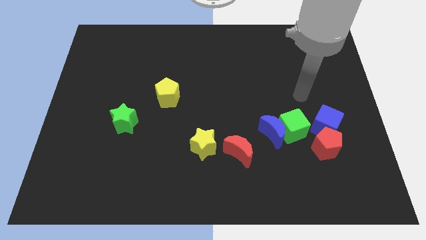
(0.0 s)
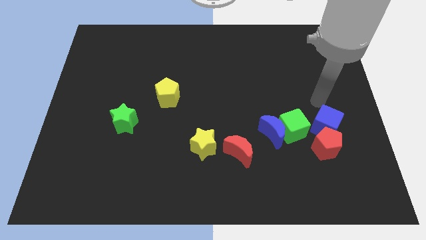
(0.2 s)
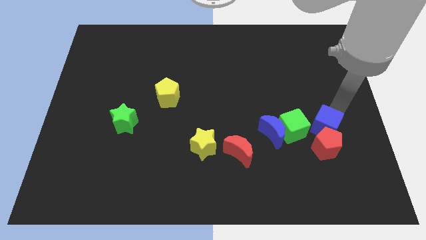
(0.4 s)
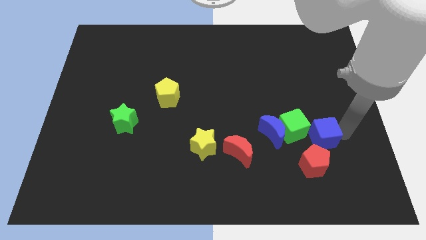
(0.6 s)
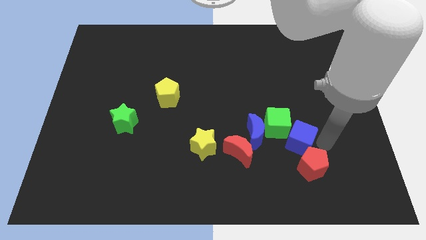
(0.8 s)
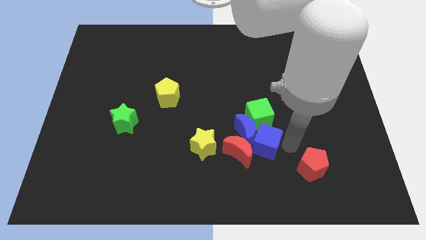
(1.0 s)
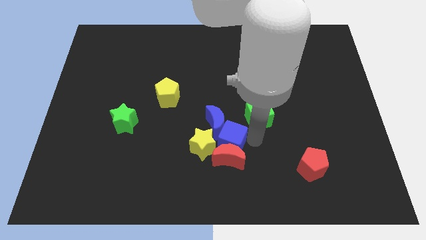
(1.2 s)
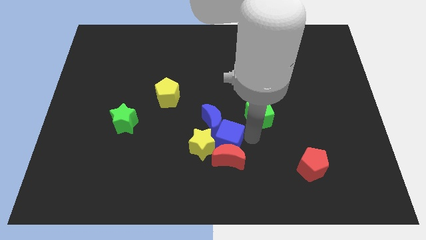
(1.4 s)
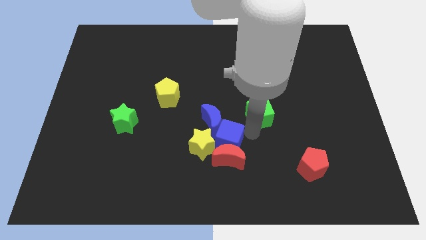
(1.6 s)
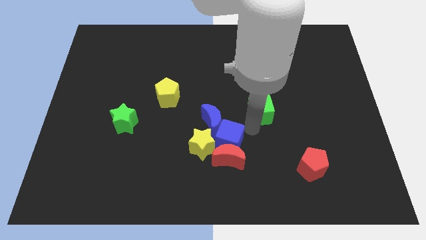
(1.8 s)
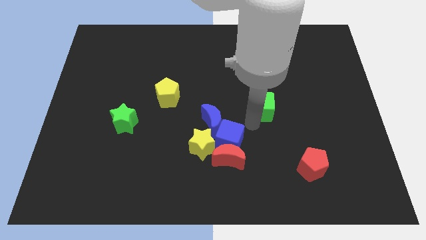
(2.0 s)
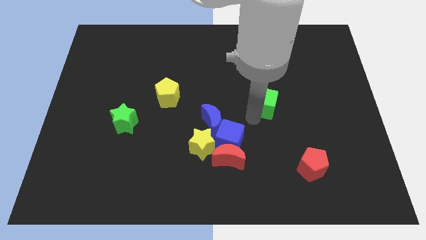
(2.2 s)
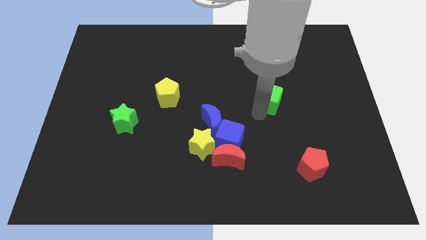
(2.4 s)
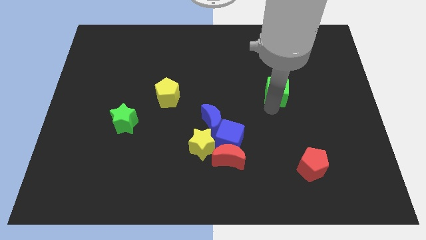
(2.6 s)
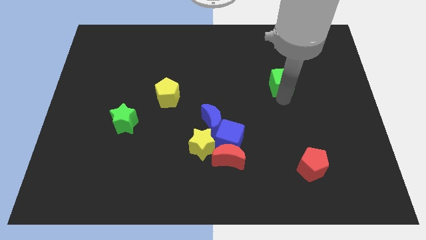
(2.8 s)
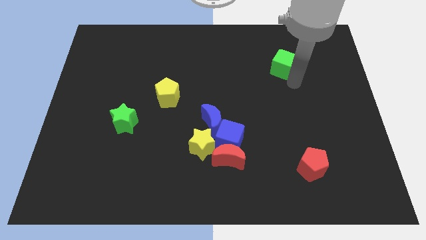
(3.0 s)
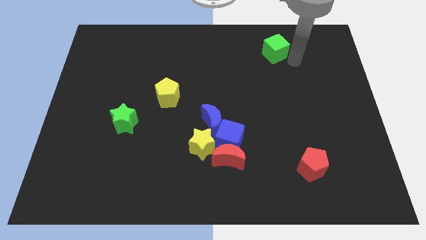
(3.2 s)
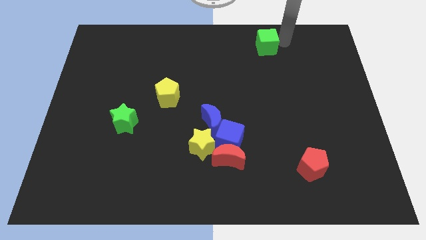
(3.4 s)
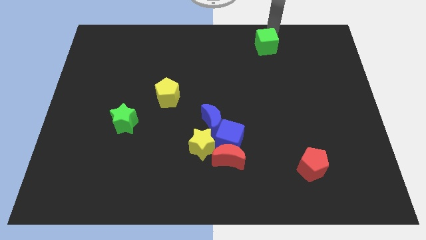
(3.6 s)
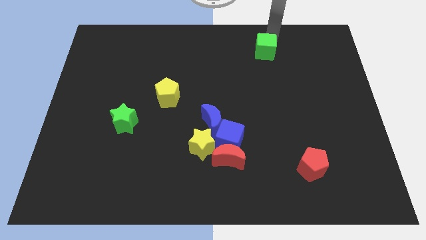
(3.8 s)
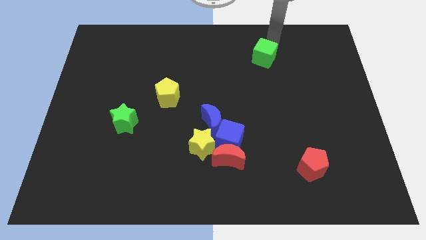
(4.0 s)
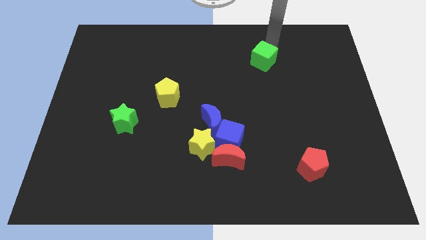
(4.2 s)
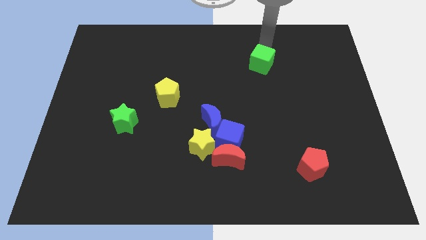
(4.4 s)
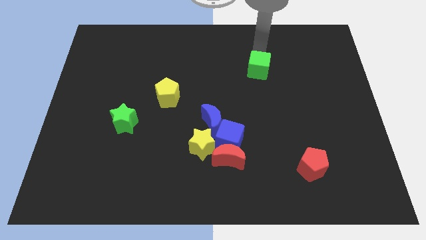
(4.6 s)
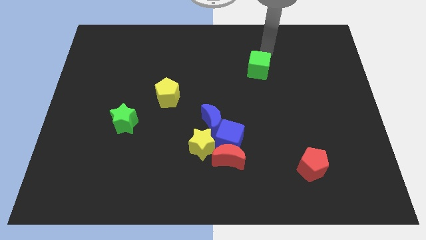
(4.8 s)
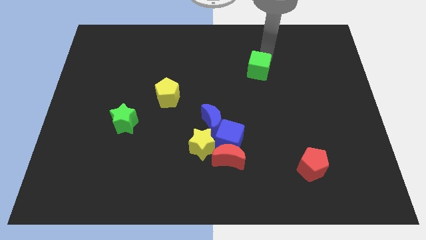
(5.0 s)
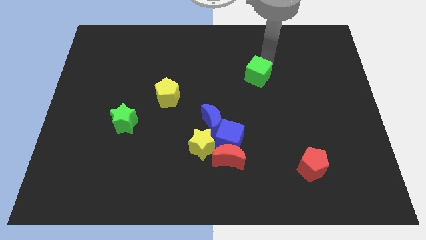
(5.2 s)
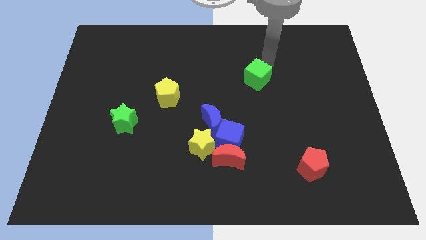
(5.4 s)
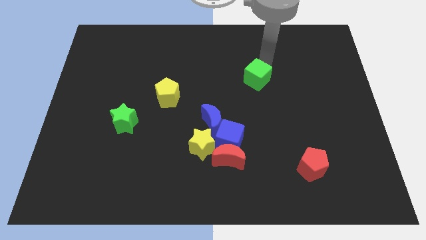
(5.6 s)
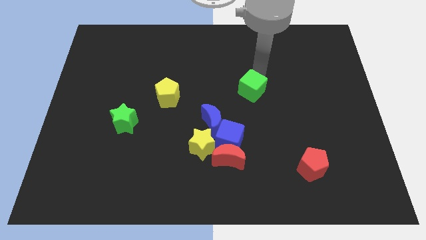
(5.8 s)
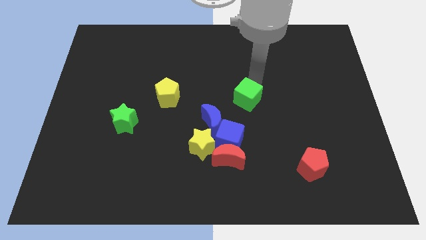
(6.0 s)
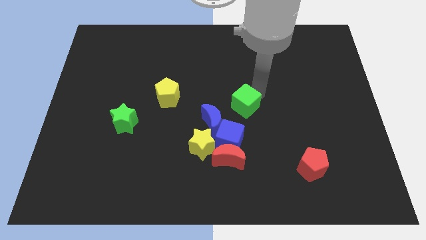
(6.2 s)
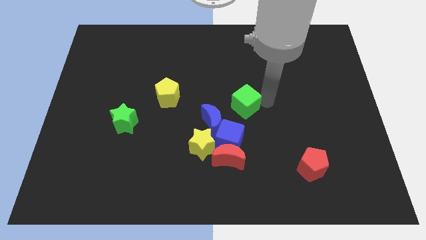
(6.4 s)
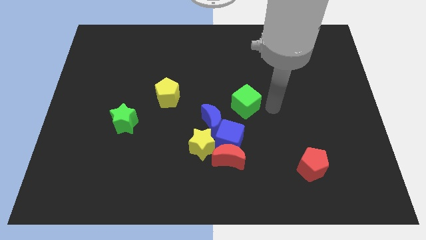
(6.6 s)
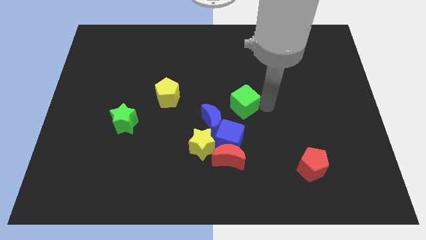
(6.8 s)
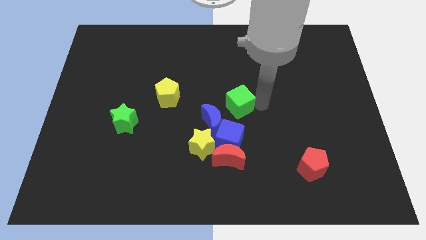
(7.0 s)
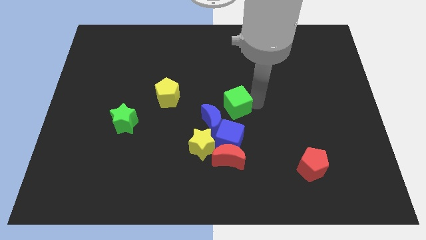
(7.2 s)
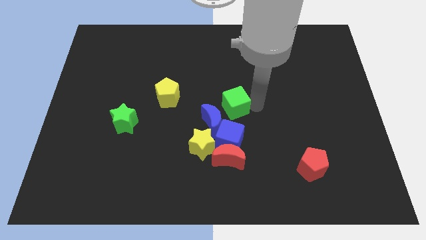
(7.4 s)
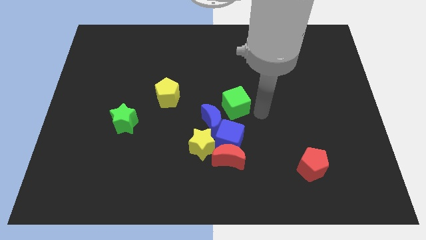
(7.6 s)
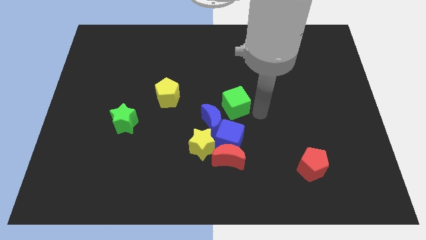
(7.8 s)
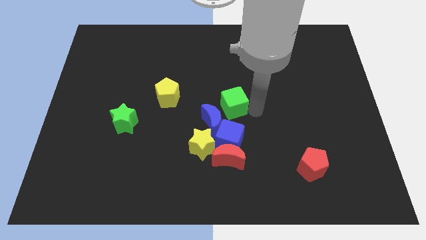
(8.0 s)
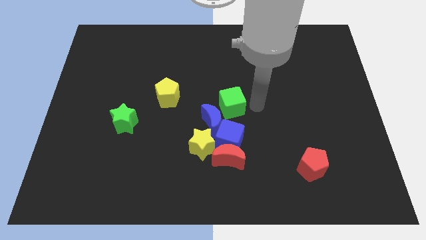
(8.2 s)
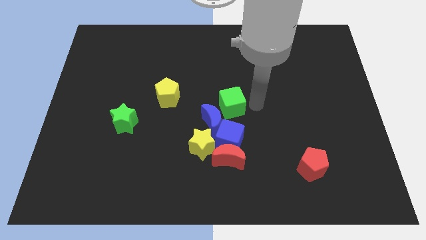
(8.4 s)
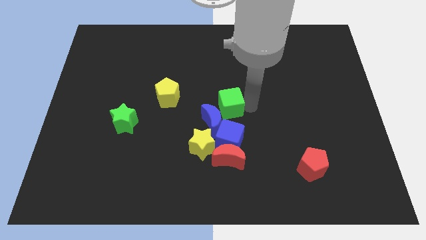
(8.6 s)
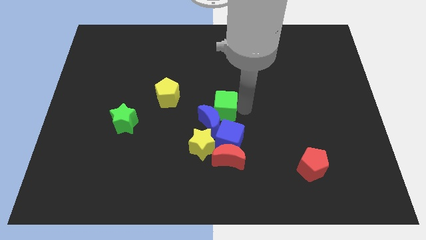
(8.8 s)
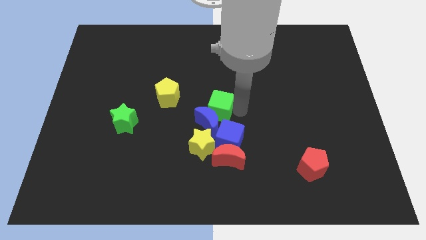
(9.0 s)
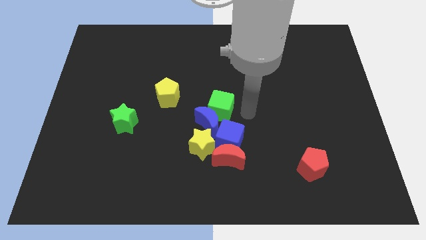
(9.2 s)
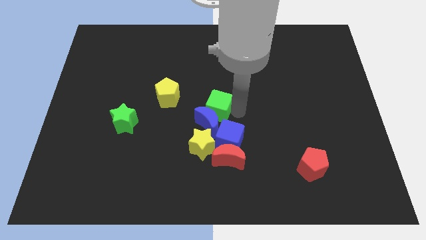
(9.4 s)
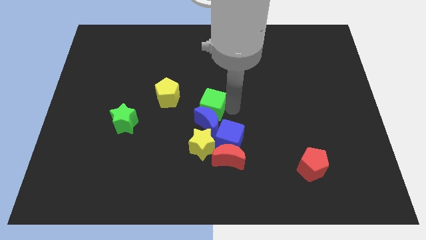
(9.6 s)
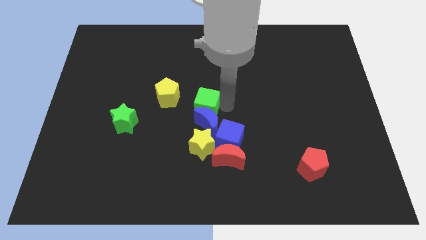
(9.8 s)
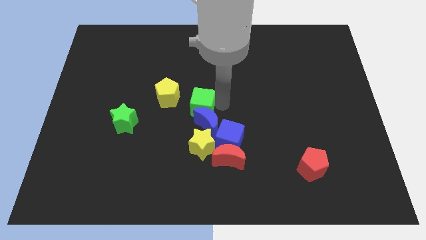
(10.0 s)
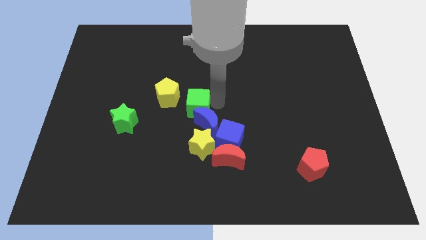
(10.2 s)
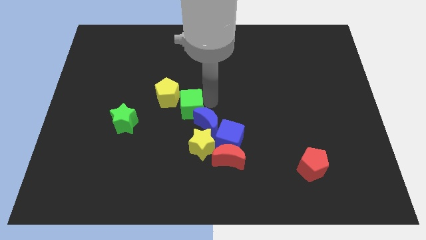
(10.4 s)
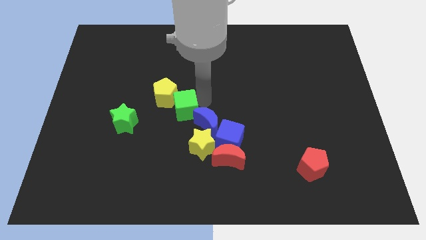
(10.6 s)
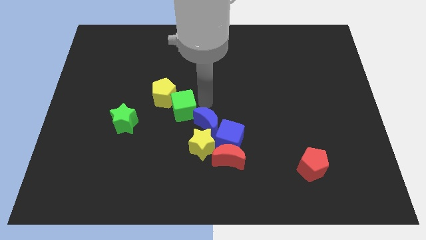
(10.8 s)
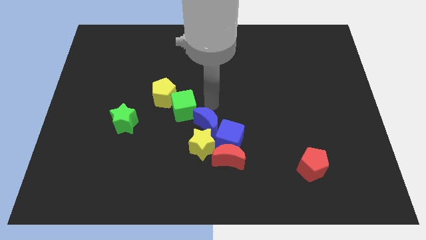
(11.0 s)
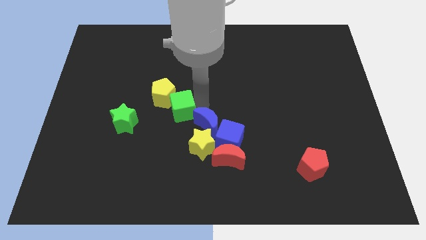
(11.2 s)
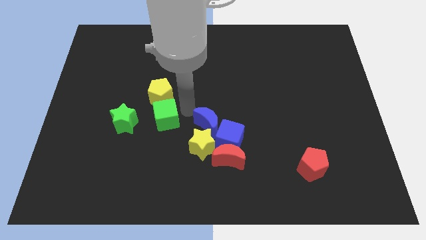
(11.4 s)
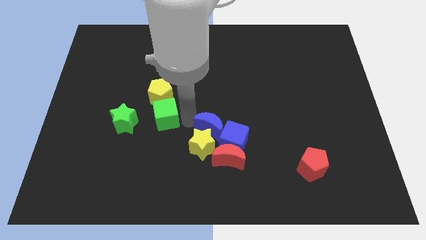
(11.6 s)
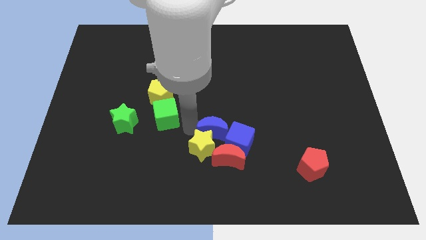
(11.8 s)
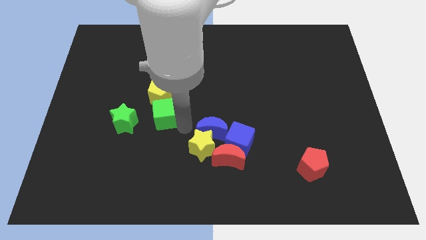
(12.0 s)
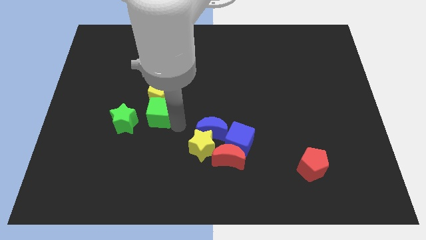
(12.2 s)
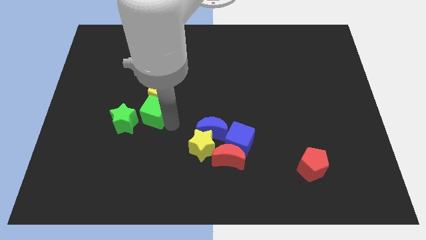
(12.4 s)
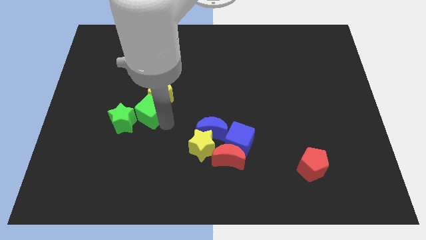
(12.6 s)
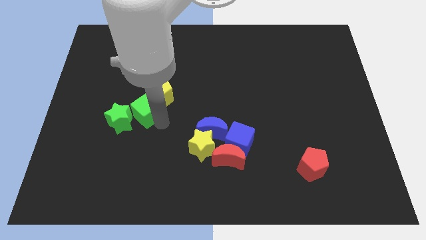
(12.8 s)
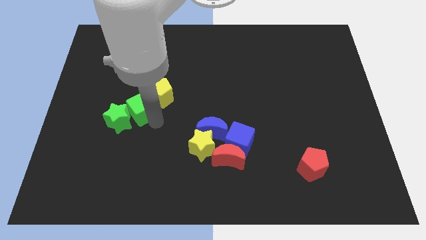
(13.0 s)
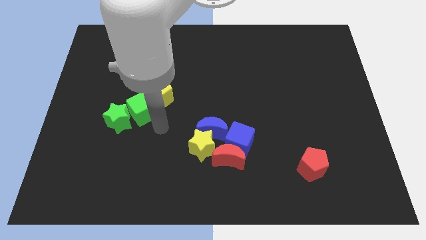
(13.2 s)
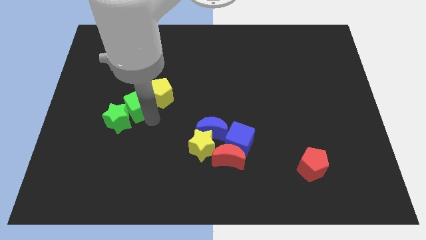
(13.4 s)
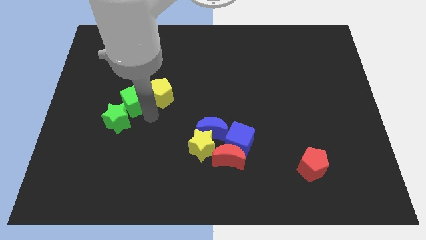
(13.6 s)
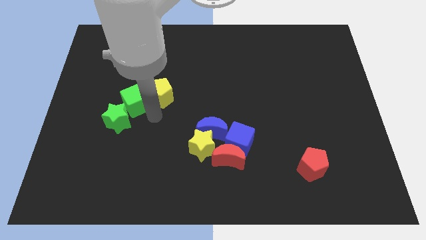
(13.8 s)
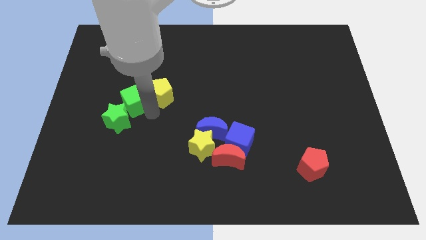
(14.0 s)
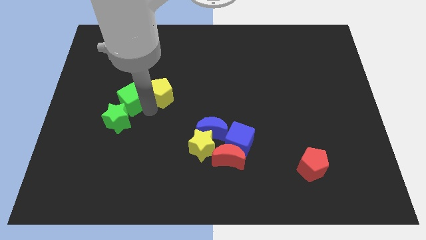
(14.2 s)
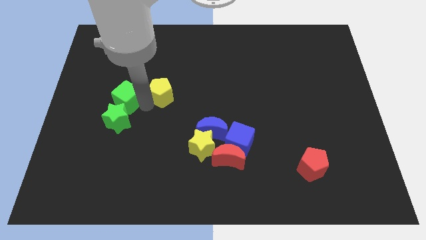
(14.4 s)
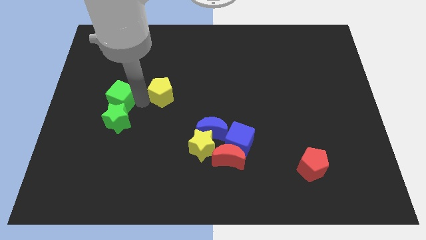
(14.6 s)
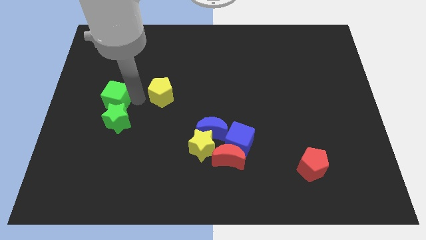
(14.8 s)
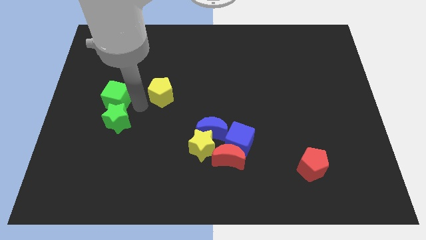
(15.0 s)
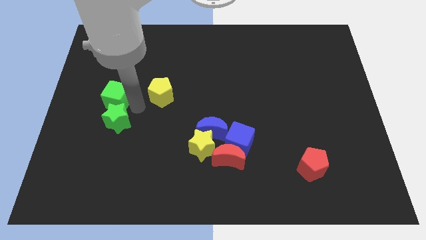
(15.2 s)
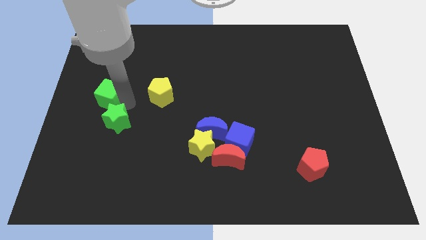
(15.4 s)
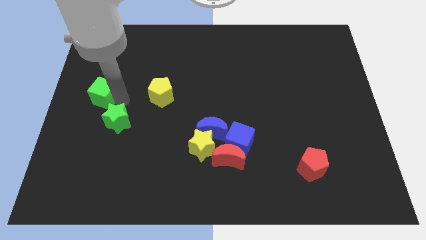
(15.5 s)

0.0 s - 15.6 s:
slide the green cube to the center left
